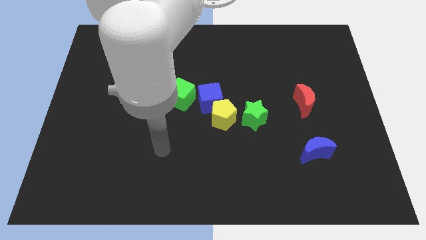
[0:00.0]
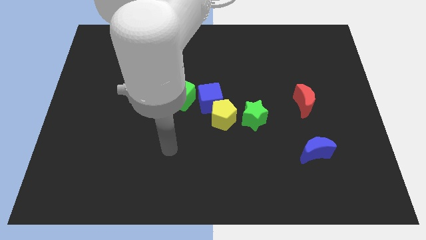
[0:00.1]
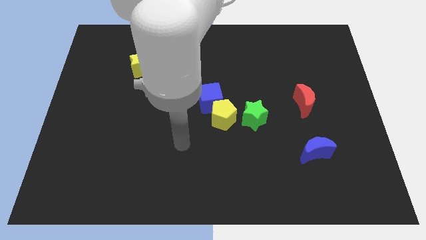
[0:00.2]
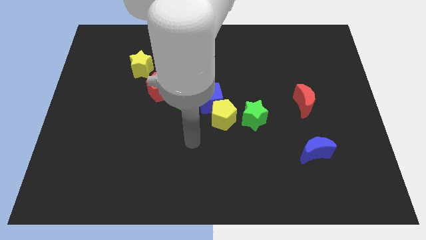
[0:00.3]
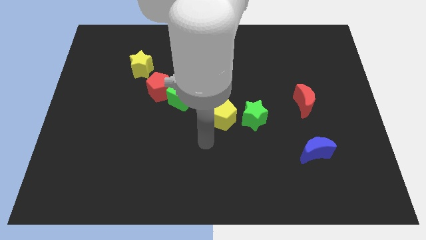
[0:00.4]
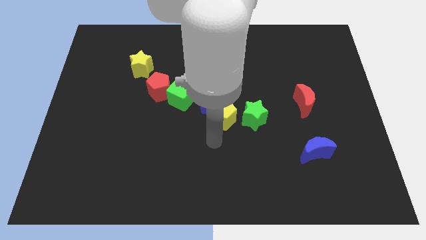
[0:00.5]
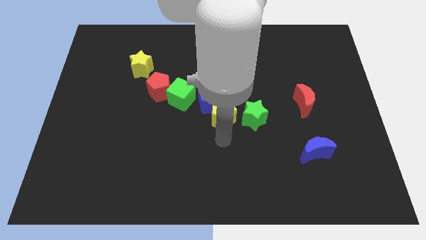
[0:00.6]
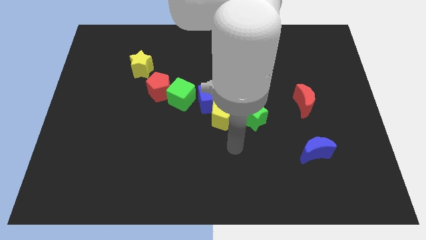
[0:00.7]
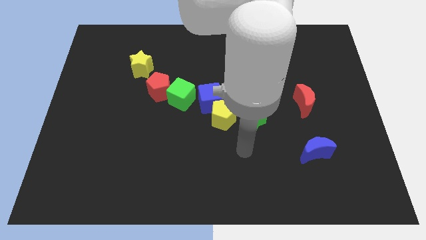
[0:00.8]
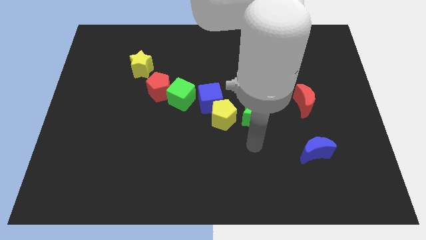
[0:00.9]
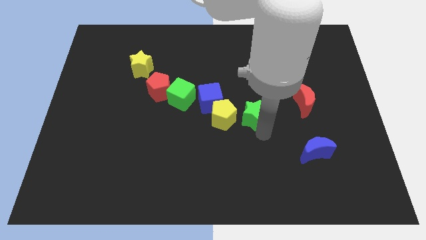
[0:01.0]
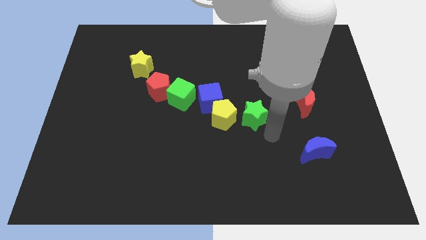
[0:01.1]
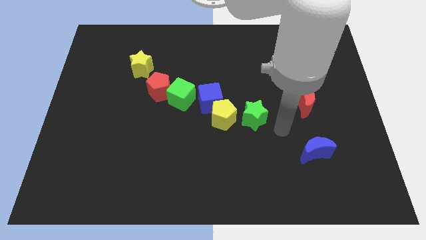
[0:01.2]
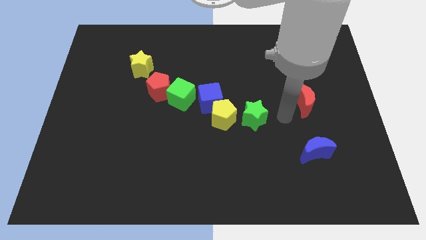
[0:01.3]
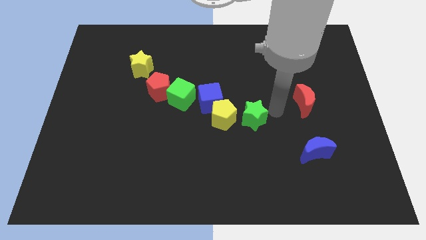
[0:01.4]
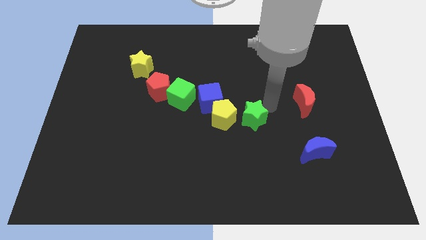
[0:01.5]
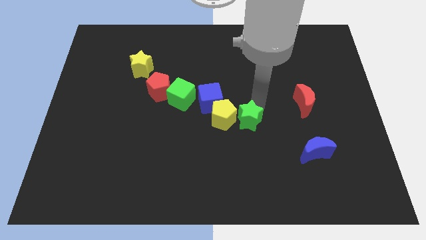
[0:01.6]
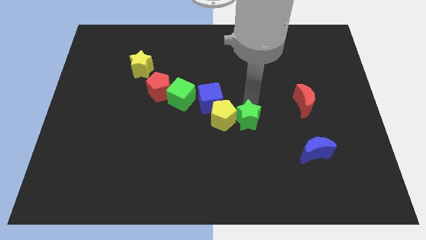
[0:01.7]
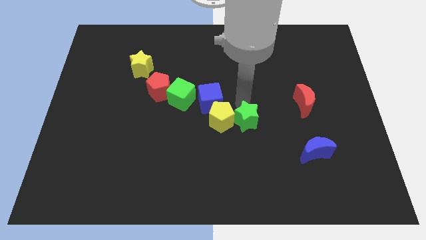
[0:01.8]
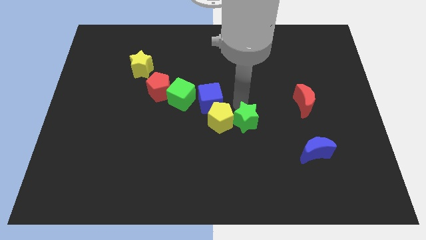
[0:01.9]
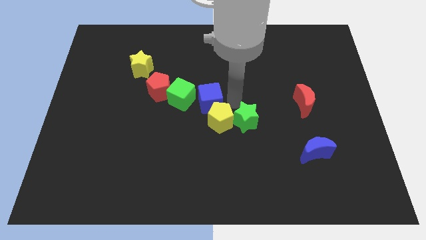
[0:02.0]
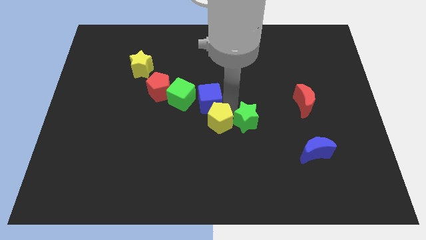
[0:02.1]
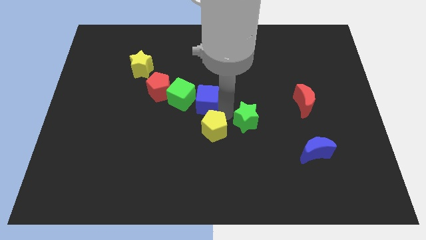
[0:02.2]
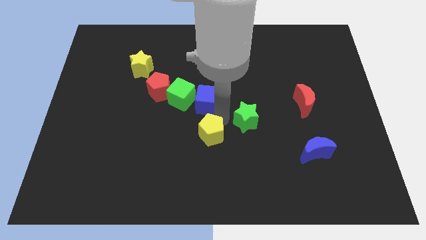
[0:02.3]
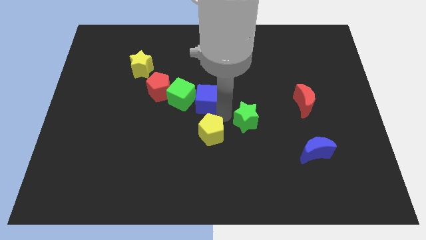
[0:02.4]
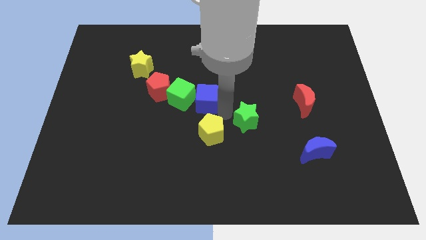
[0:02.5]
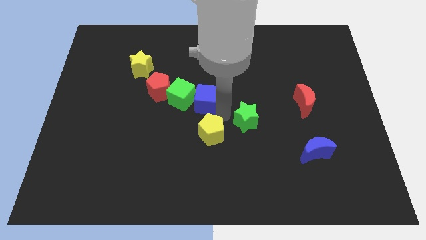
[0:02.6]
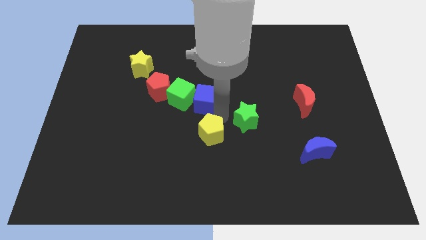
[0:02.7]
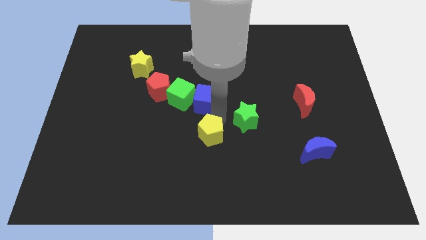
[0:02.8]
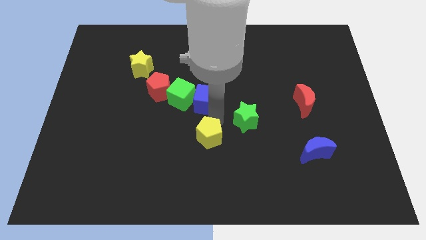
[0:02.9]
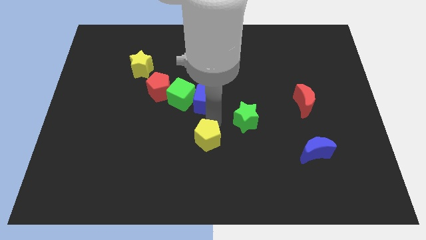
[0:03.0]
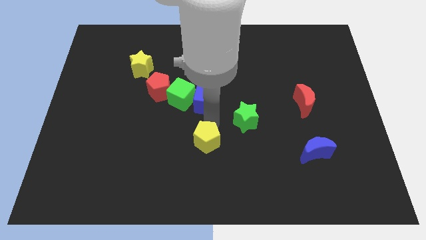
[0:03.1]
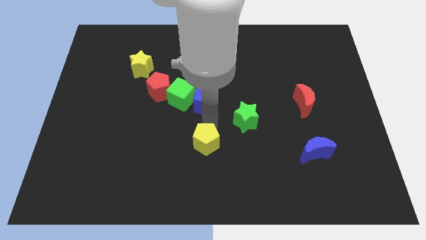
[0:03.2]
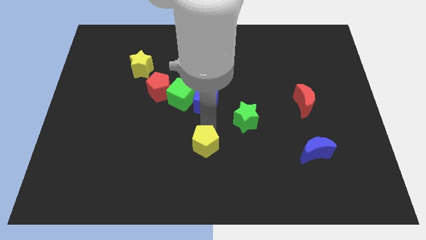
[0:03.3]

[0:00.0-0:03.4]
pull the yellow pentagon apart from the blue cube and green star

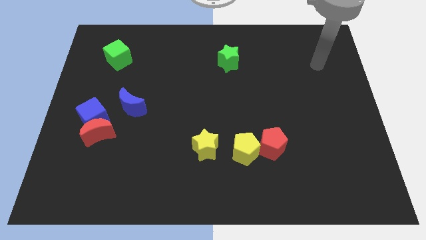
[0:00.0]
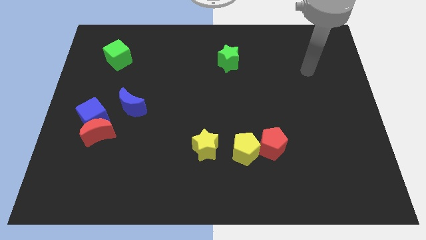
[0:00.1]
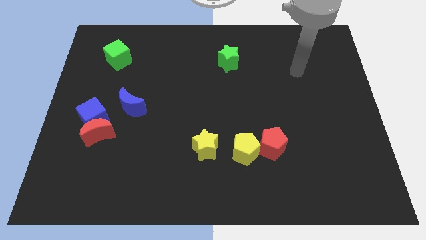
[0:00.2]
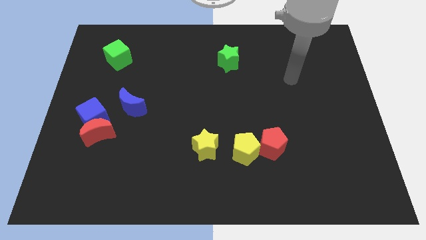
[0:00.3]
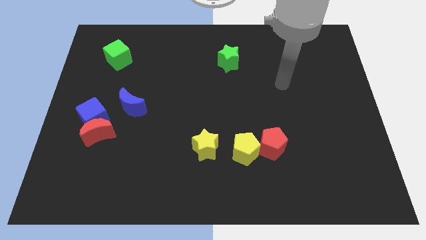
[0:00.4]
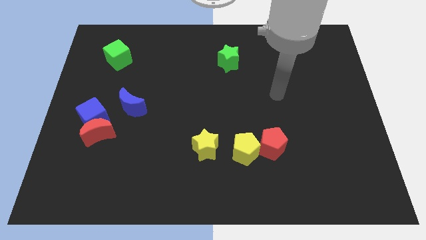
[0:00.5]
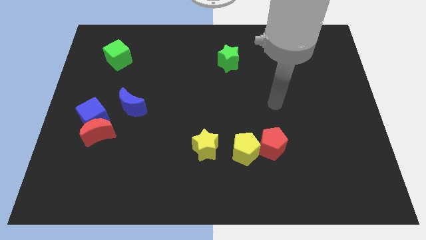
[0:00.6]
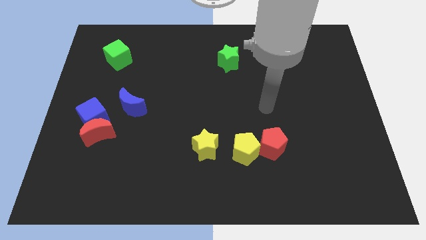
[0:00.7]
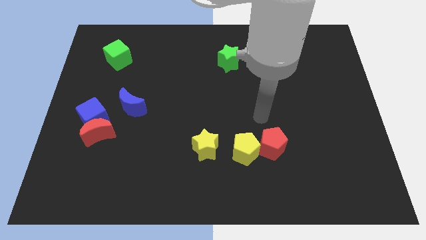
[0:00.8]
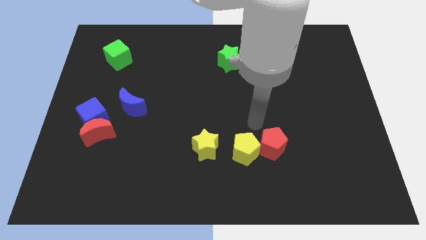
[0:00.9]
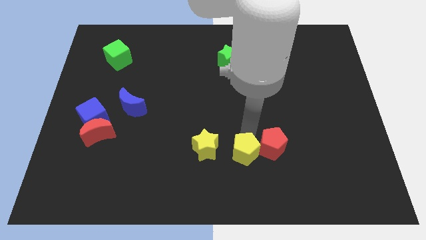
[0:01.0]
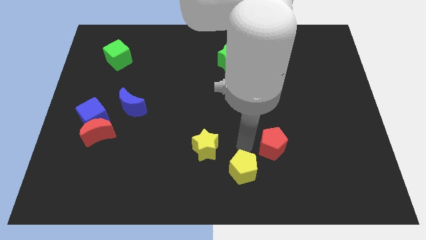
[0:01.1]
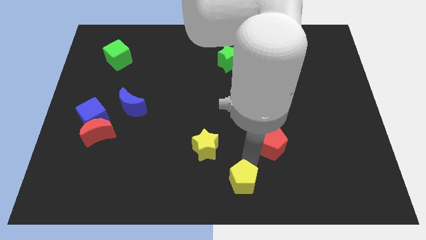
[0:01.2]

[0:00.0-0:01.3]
move the red pentagon away from the yellow pentagon

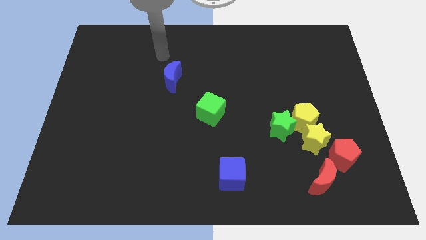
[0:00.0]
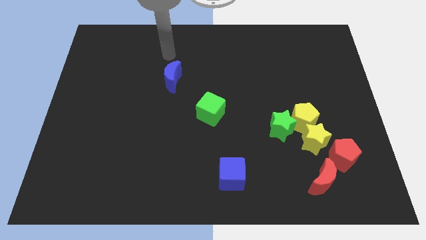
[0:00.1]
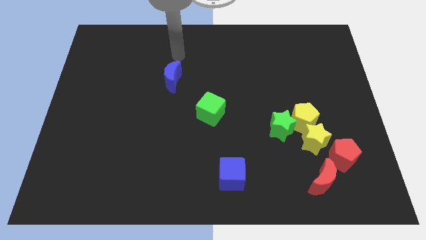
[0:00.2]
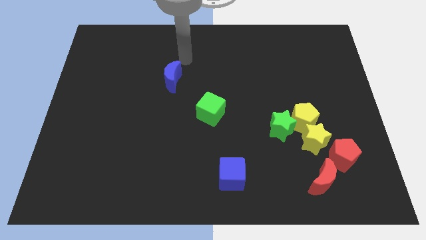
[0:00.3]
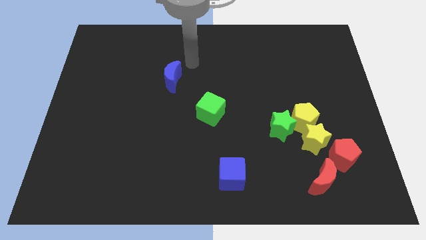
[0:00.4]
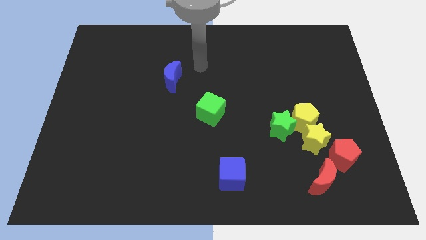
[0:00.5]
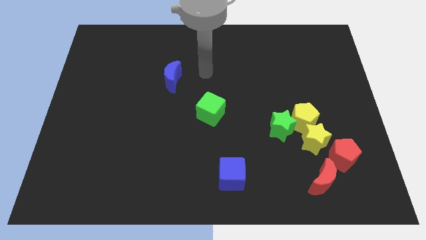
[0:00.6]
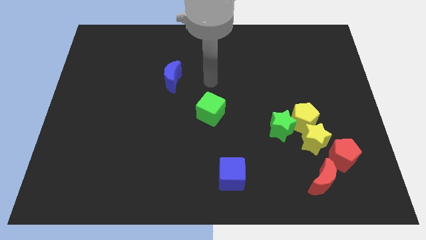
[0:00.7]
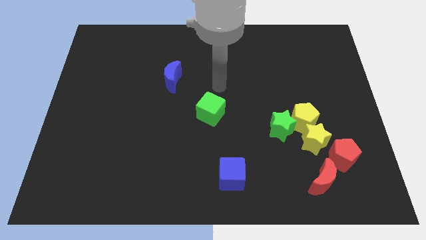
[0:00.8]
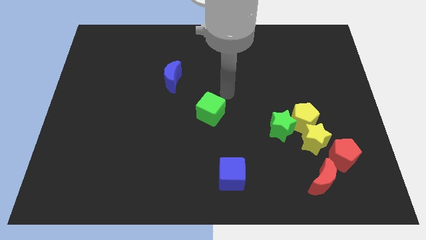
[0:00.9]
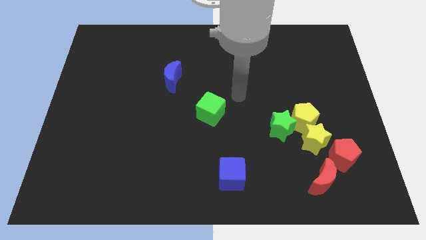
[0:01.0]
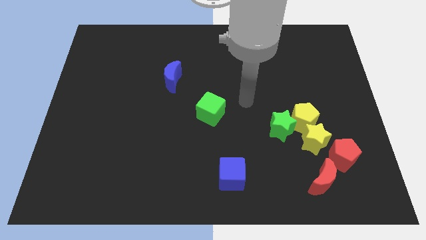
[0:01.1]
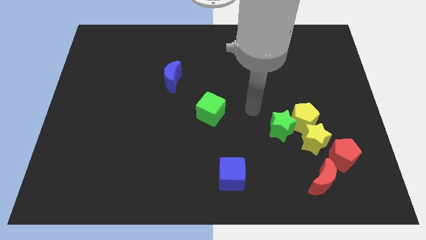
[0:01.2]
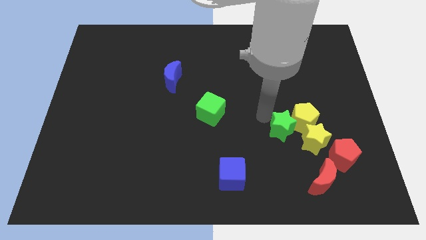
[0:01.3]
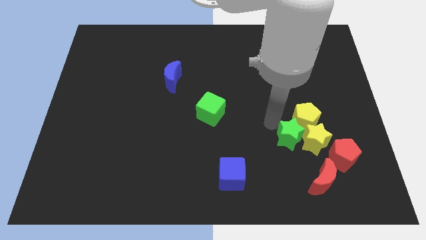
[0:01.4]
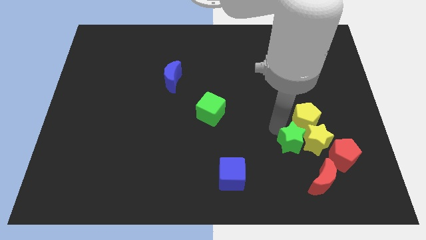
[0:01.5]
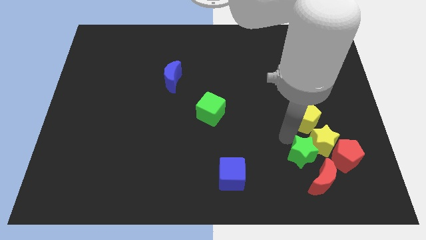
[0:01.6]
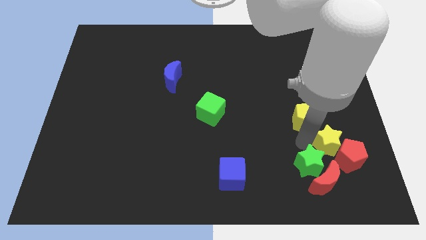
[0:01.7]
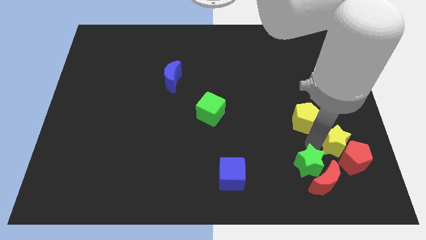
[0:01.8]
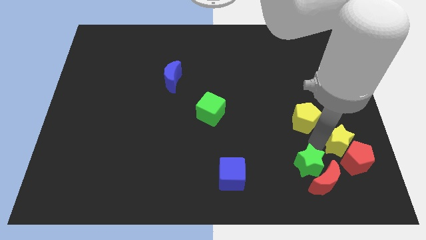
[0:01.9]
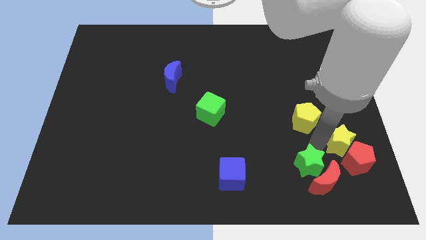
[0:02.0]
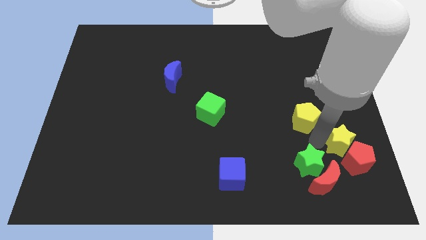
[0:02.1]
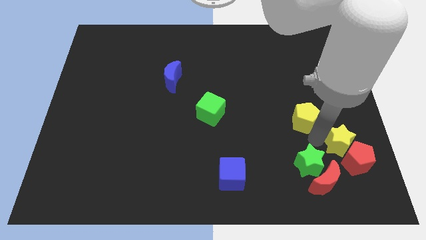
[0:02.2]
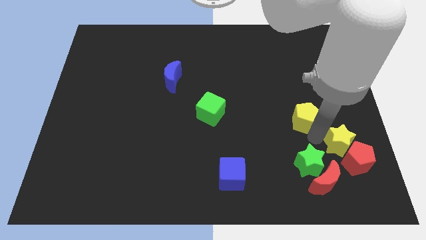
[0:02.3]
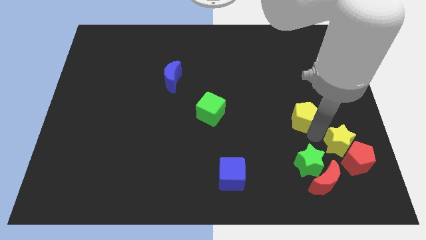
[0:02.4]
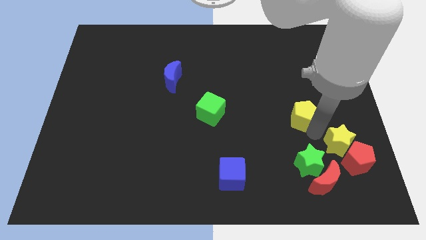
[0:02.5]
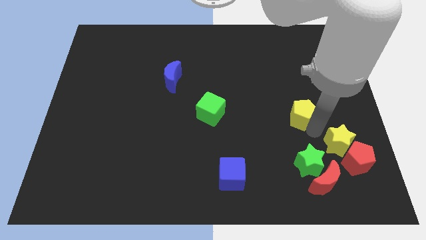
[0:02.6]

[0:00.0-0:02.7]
move the yellow pentagon away from the green star and yellow star

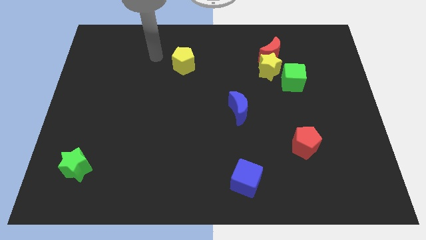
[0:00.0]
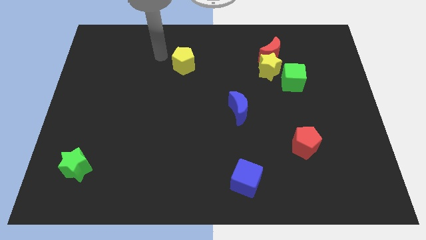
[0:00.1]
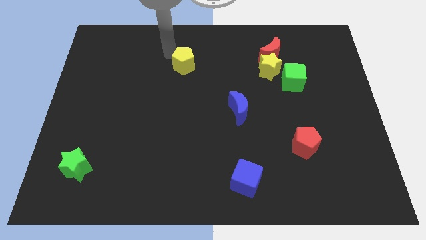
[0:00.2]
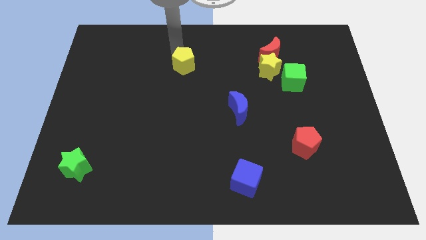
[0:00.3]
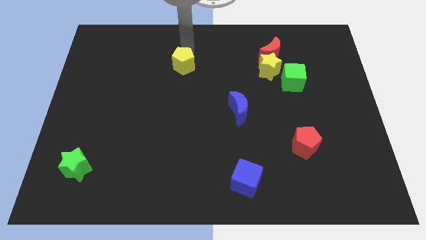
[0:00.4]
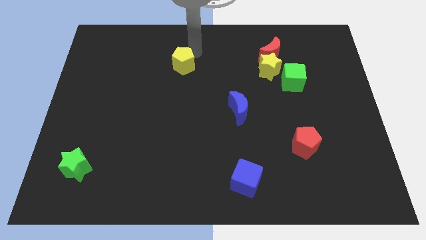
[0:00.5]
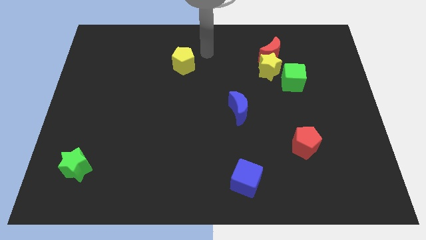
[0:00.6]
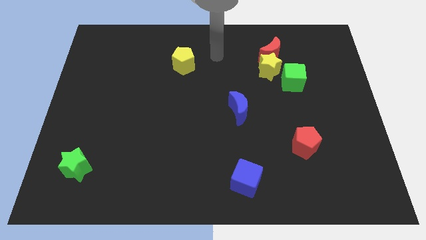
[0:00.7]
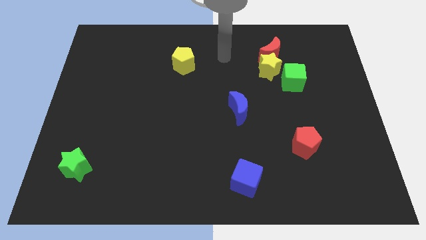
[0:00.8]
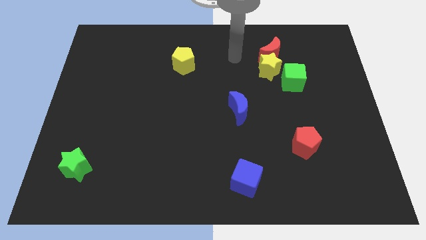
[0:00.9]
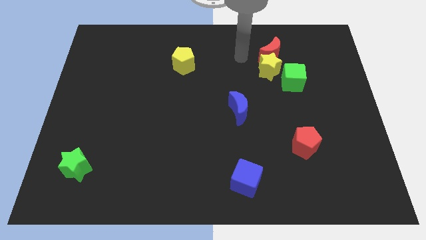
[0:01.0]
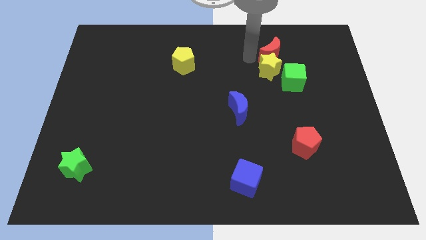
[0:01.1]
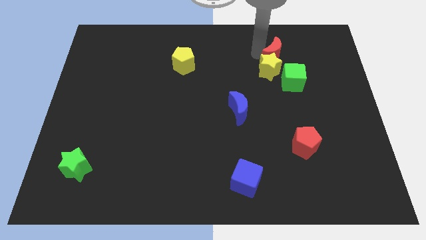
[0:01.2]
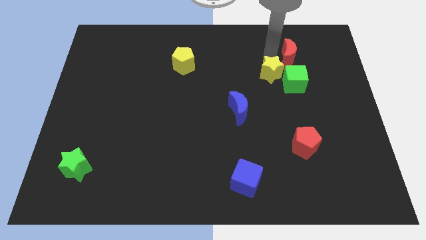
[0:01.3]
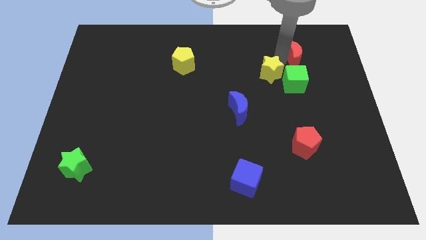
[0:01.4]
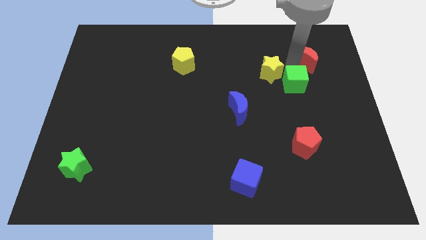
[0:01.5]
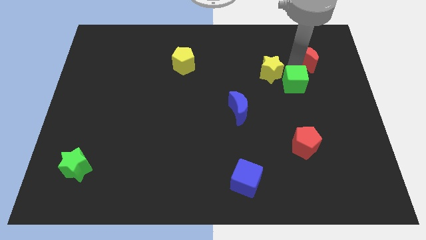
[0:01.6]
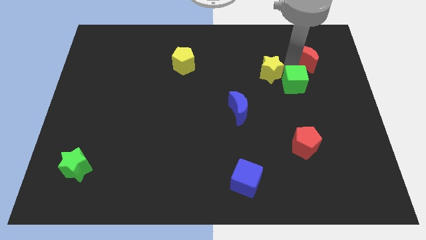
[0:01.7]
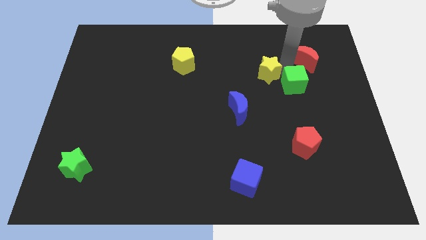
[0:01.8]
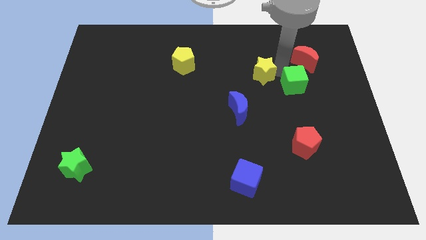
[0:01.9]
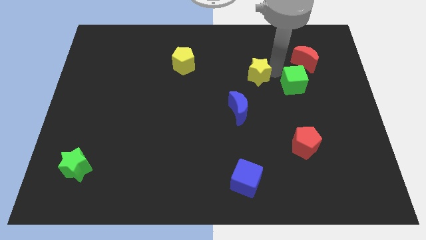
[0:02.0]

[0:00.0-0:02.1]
move the yellow star away from the red moon and green cube
